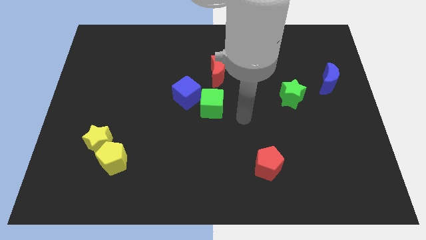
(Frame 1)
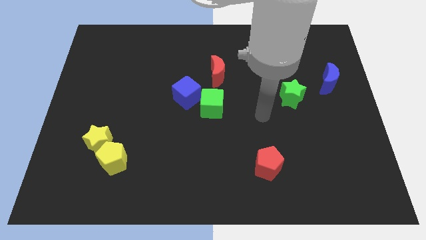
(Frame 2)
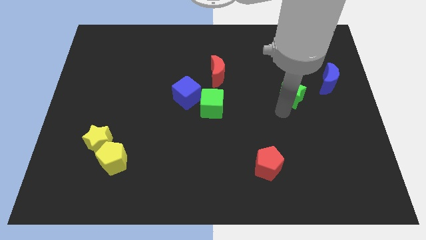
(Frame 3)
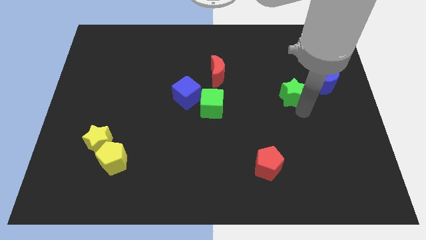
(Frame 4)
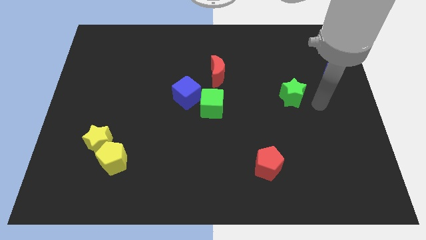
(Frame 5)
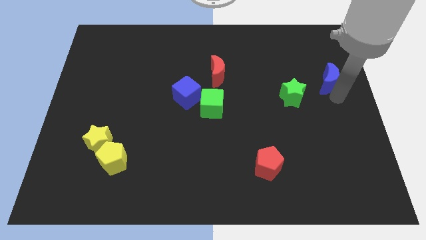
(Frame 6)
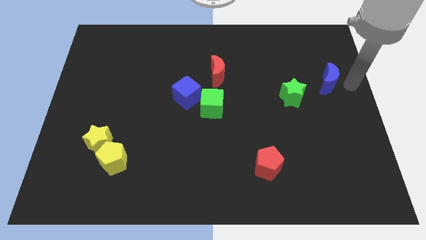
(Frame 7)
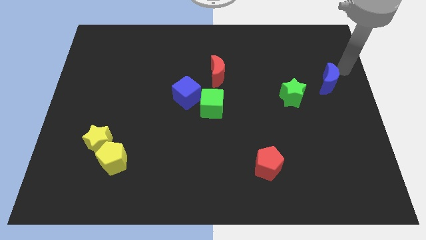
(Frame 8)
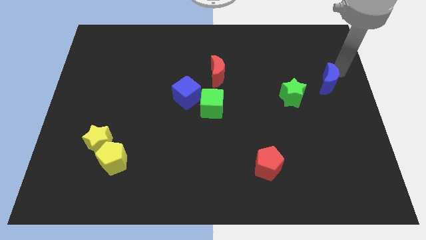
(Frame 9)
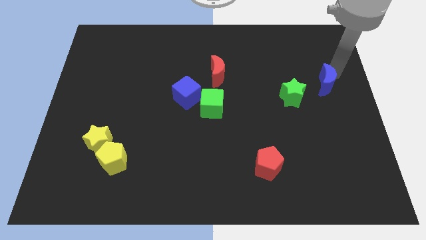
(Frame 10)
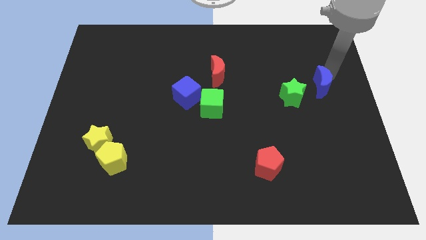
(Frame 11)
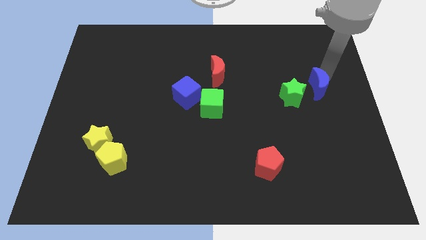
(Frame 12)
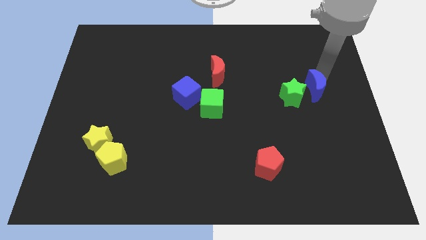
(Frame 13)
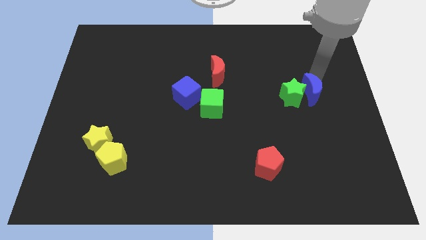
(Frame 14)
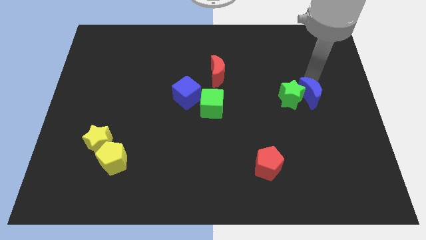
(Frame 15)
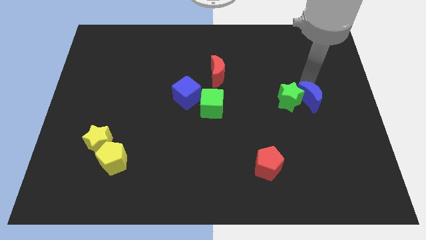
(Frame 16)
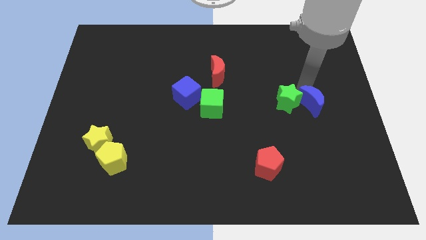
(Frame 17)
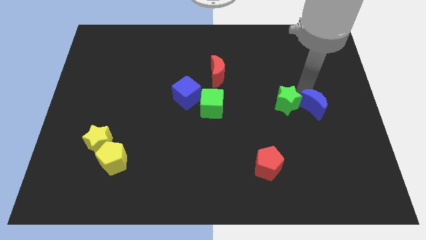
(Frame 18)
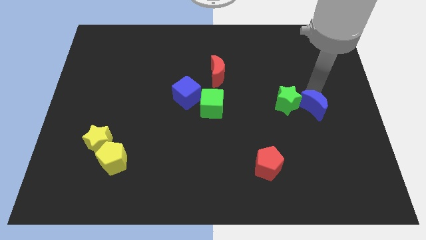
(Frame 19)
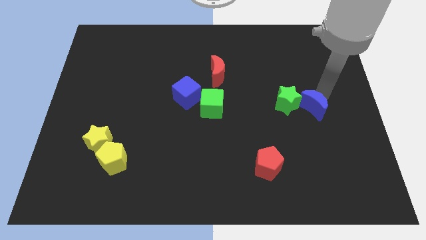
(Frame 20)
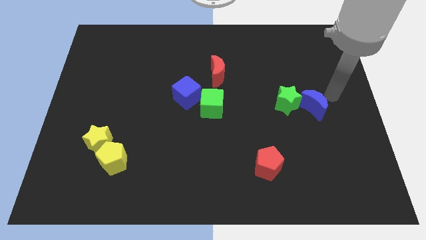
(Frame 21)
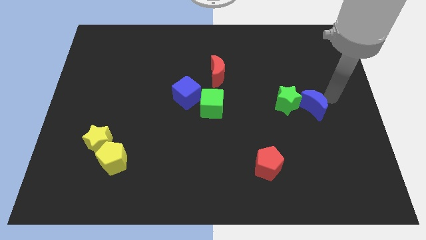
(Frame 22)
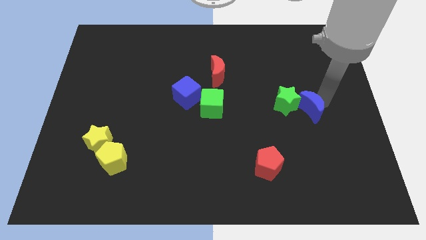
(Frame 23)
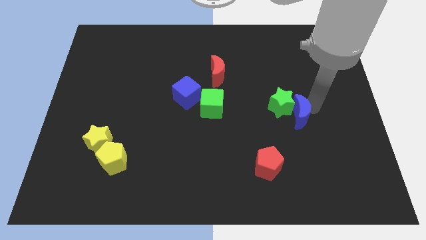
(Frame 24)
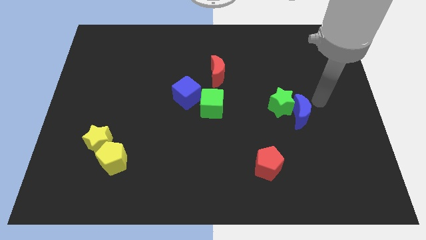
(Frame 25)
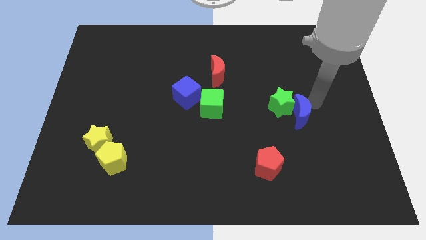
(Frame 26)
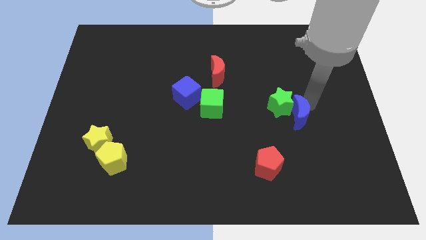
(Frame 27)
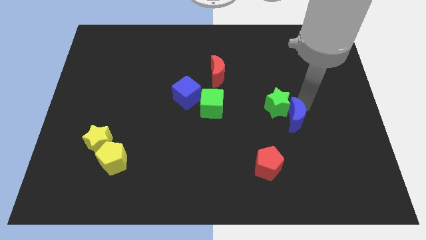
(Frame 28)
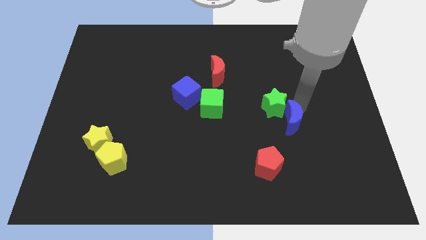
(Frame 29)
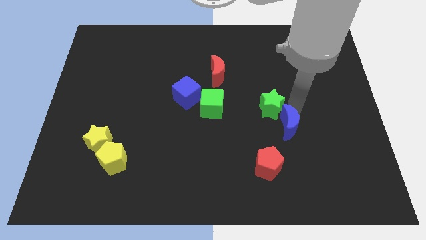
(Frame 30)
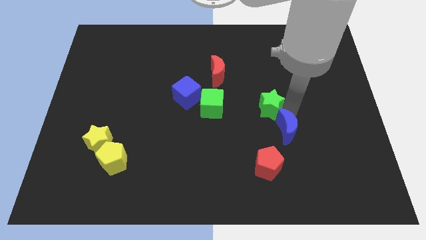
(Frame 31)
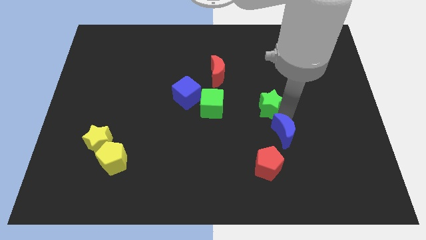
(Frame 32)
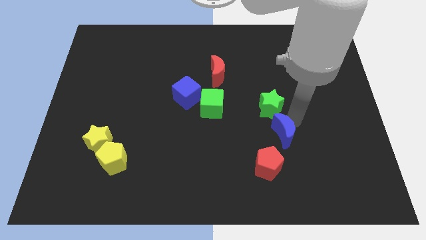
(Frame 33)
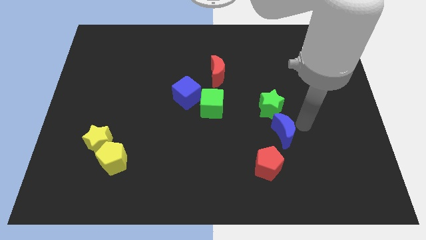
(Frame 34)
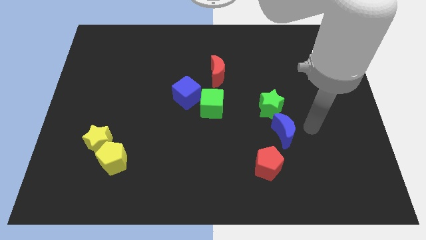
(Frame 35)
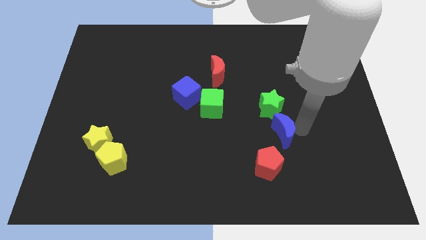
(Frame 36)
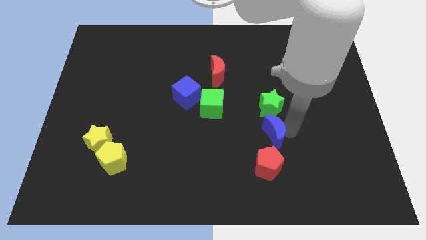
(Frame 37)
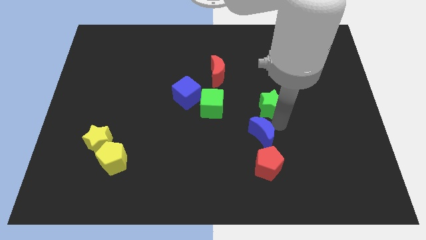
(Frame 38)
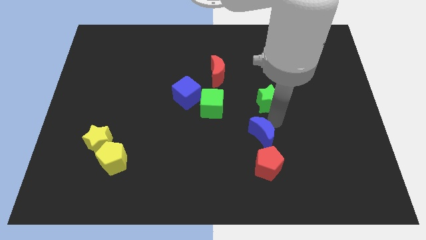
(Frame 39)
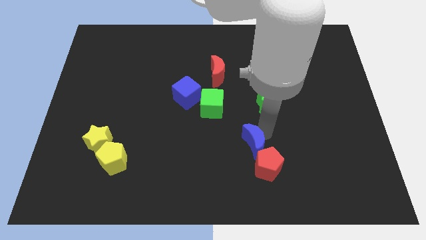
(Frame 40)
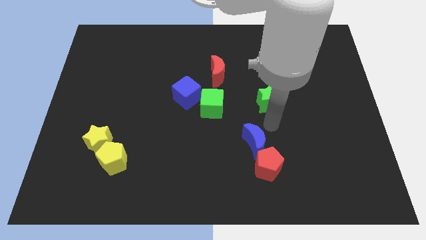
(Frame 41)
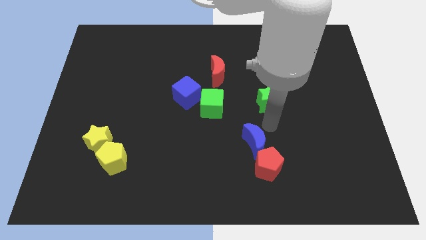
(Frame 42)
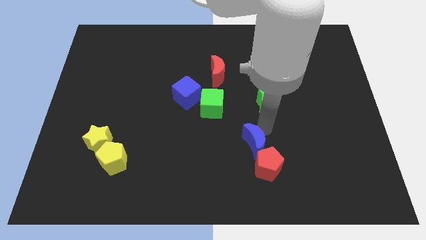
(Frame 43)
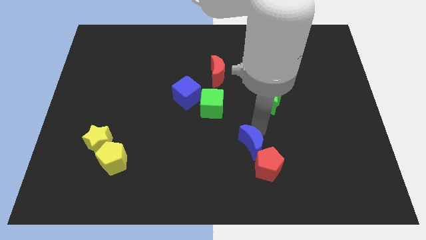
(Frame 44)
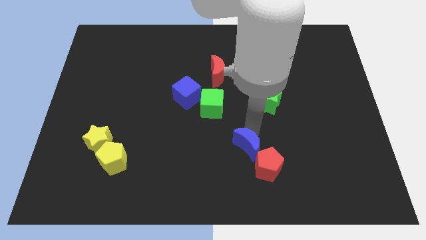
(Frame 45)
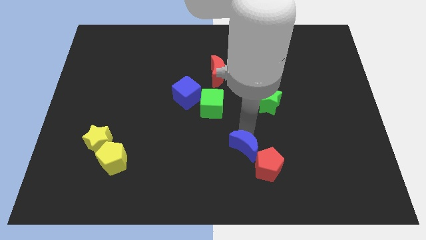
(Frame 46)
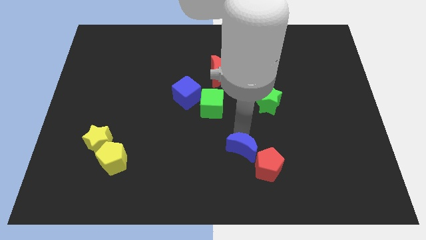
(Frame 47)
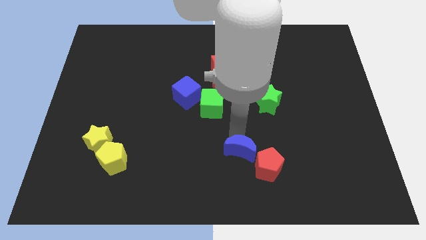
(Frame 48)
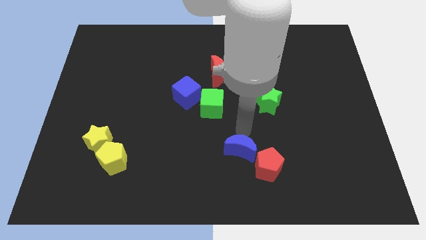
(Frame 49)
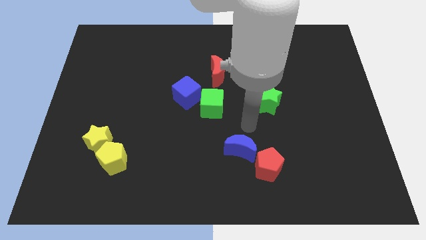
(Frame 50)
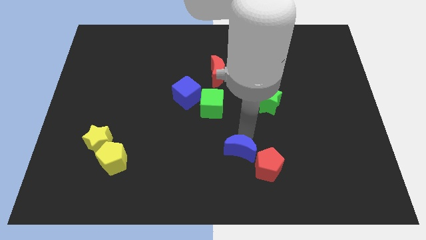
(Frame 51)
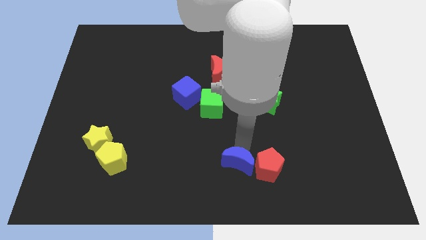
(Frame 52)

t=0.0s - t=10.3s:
slide the blue moon to the bottom side

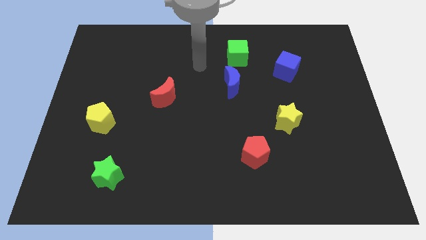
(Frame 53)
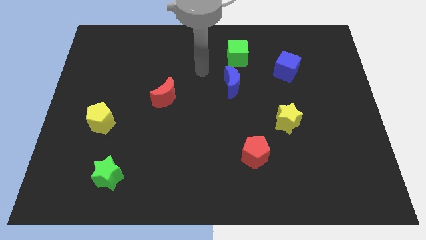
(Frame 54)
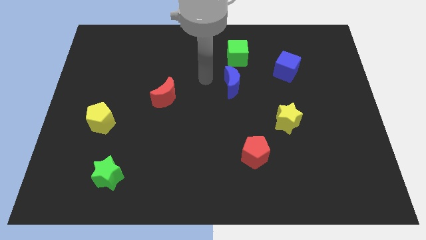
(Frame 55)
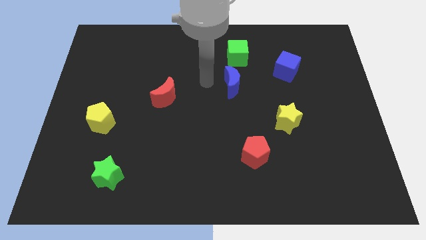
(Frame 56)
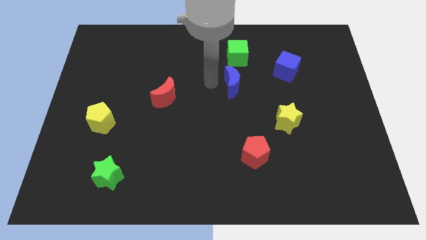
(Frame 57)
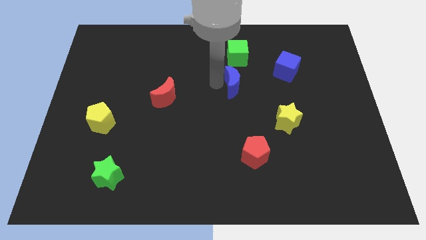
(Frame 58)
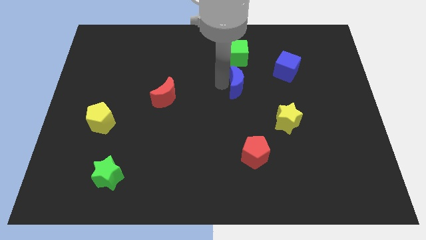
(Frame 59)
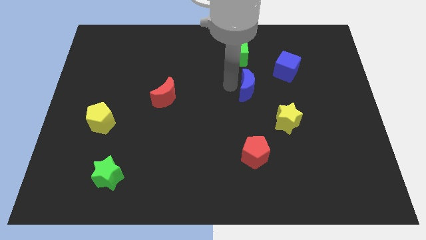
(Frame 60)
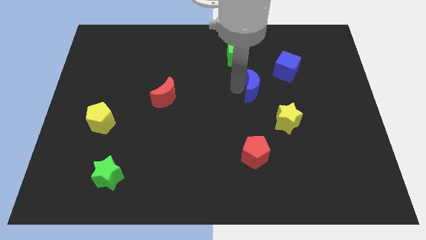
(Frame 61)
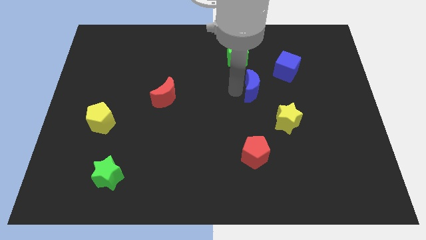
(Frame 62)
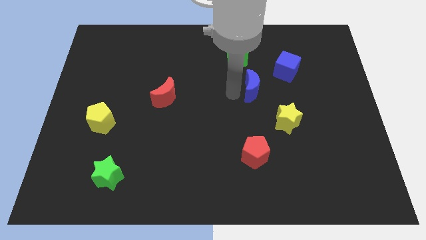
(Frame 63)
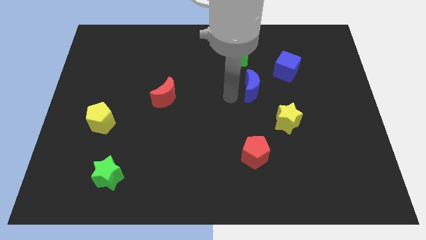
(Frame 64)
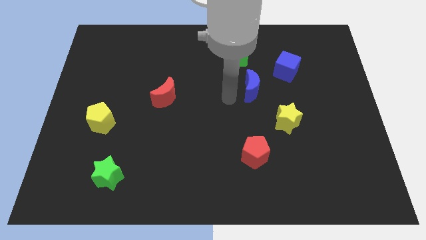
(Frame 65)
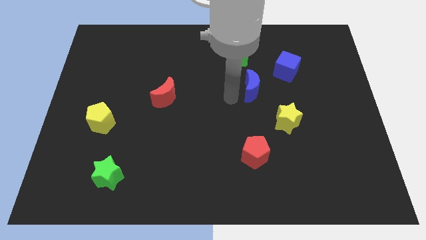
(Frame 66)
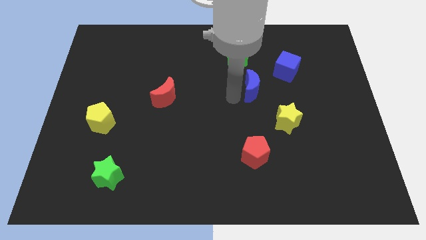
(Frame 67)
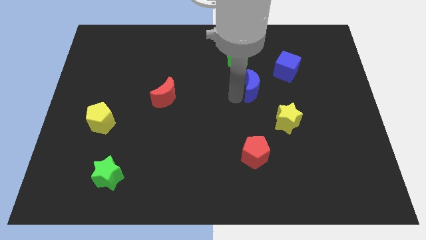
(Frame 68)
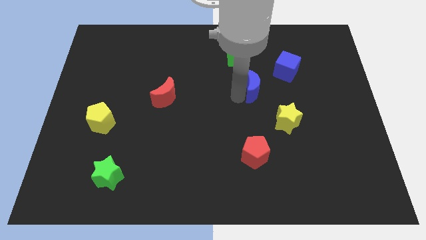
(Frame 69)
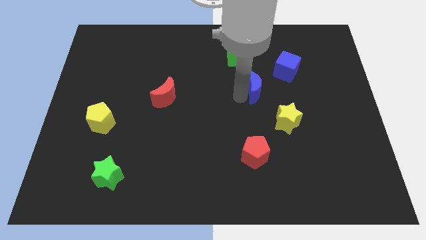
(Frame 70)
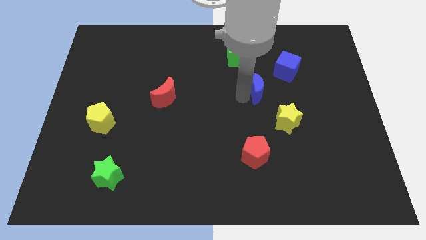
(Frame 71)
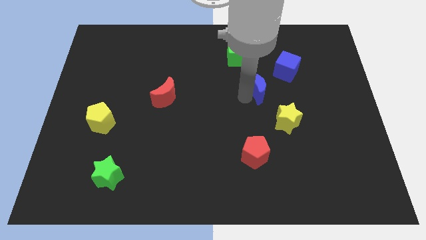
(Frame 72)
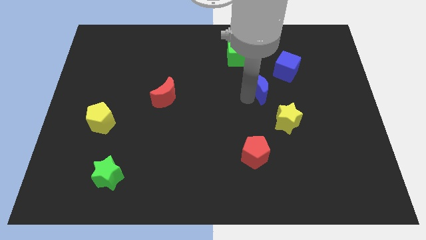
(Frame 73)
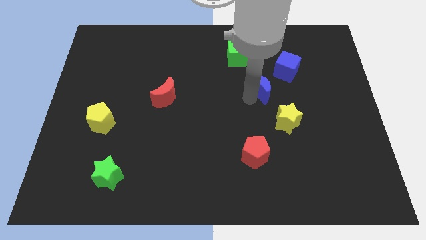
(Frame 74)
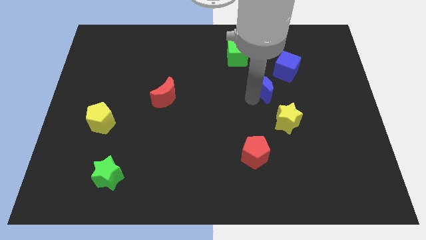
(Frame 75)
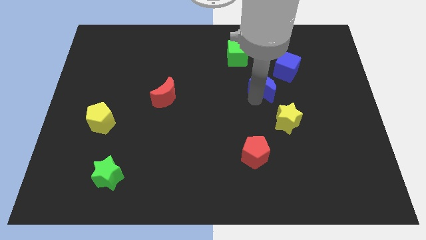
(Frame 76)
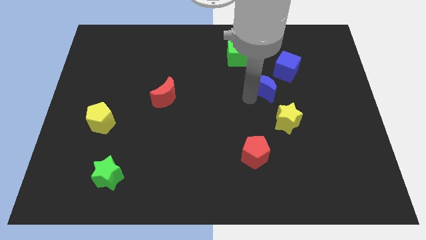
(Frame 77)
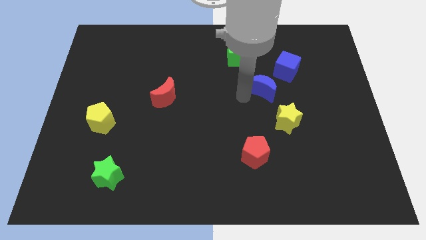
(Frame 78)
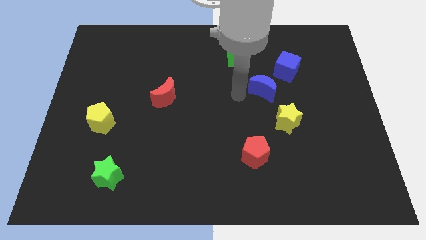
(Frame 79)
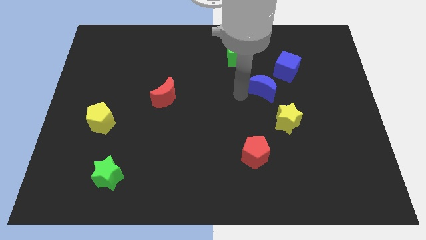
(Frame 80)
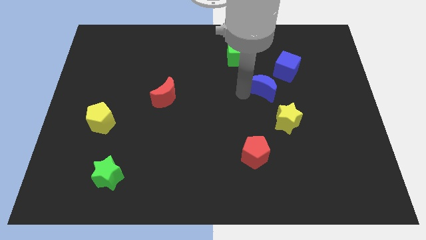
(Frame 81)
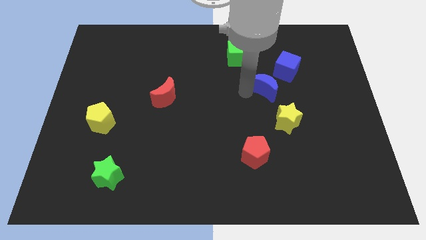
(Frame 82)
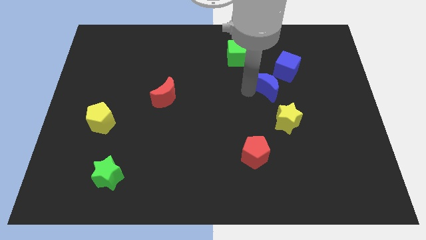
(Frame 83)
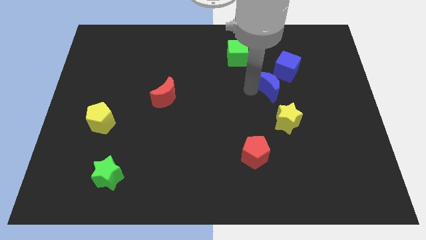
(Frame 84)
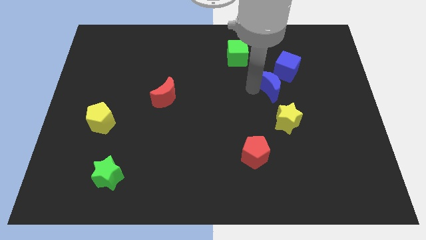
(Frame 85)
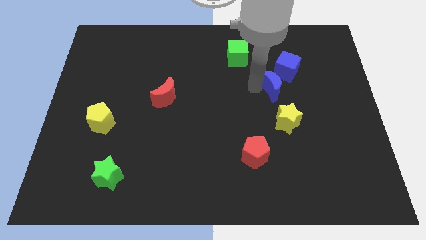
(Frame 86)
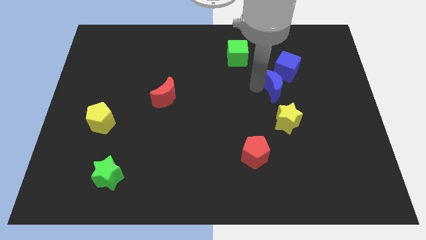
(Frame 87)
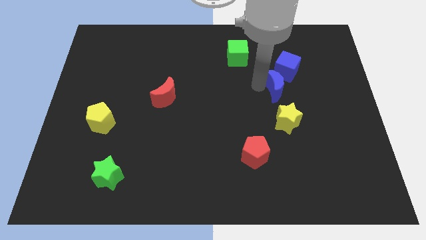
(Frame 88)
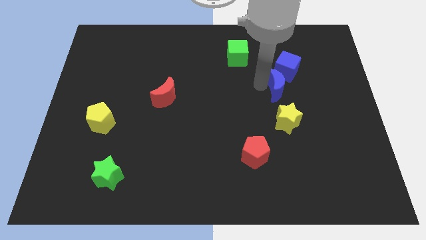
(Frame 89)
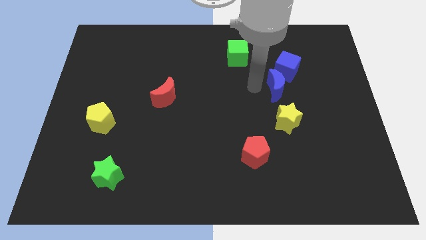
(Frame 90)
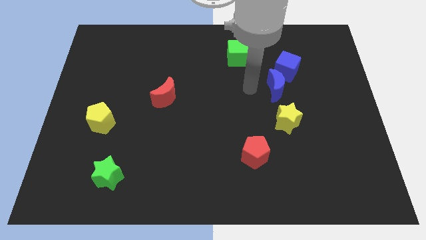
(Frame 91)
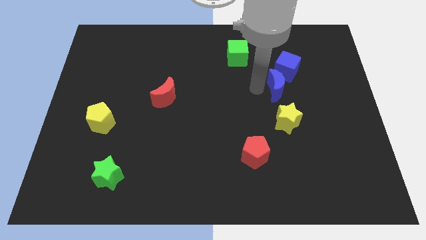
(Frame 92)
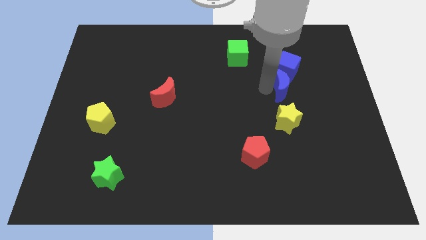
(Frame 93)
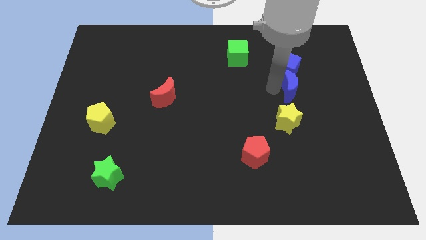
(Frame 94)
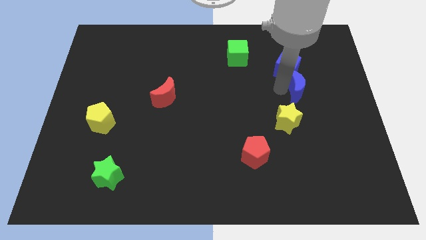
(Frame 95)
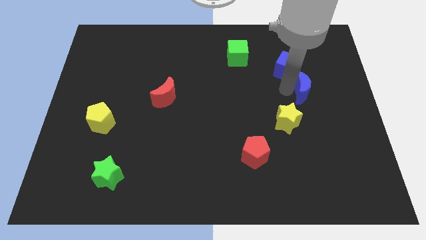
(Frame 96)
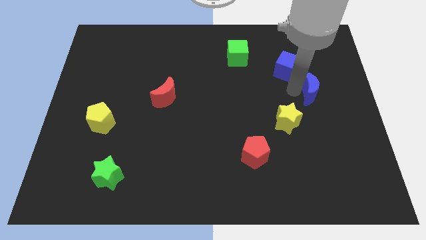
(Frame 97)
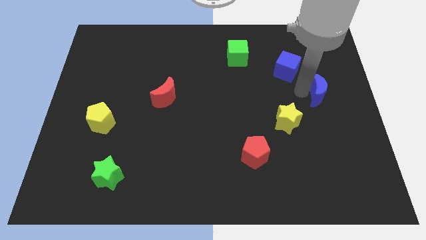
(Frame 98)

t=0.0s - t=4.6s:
push the blue moon to the right side of the board
